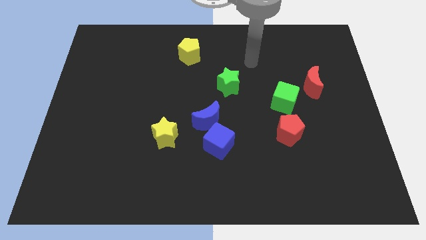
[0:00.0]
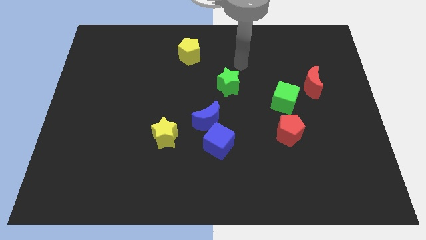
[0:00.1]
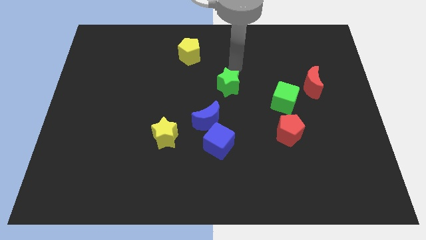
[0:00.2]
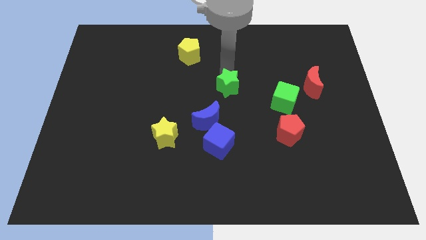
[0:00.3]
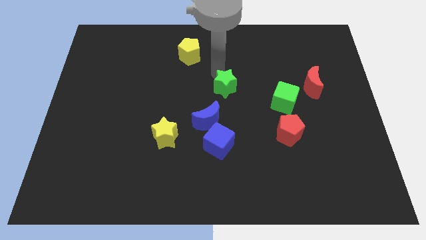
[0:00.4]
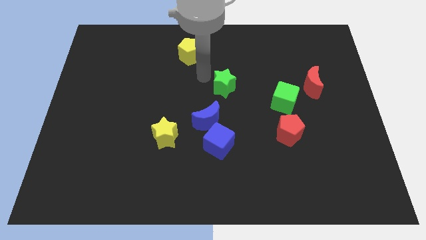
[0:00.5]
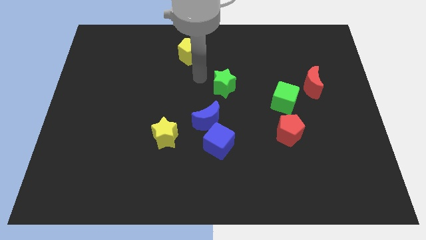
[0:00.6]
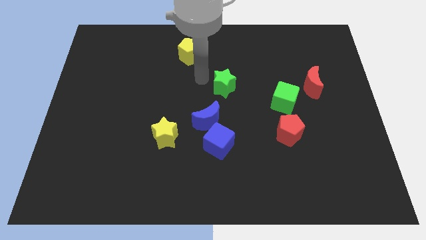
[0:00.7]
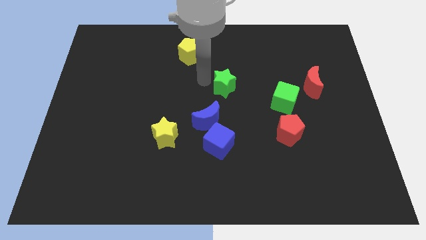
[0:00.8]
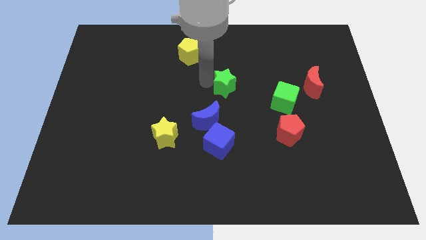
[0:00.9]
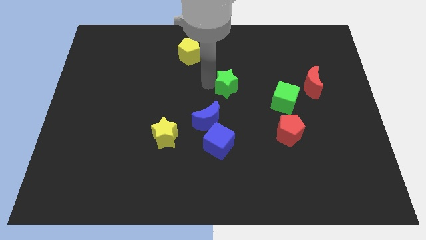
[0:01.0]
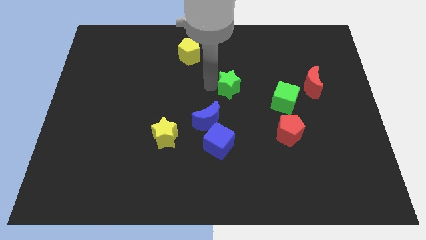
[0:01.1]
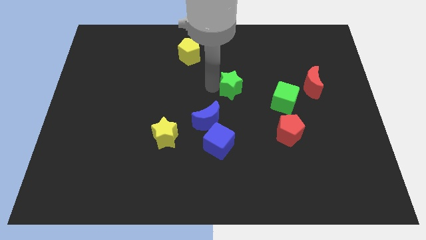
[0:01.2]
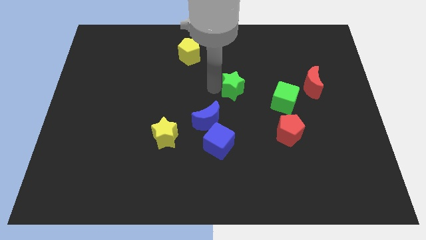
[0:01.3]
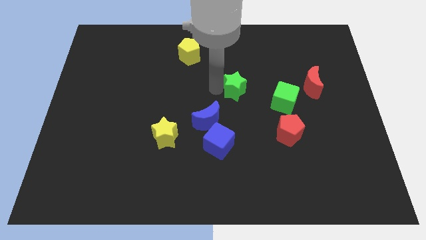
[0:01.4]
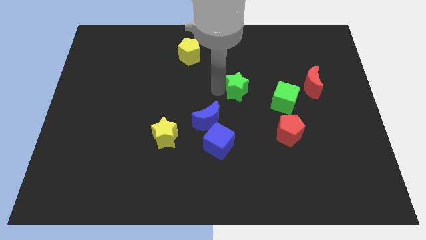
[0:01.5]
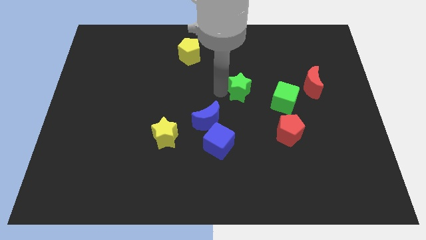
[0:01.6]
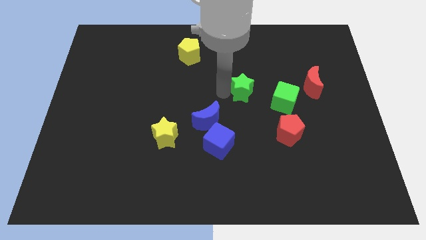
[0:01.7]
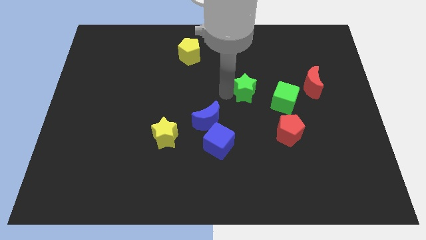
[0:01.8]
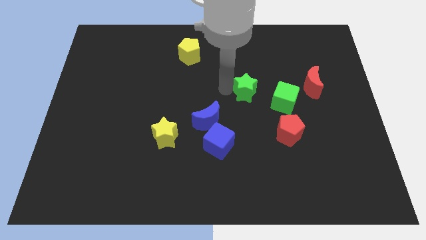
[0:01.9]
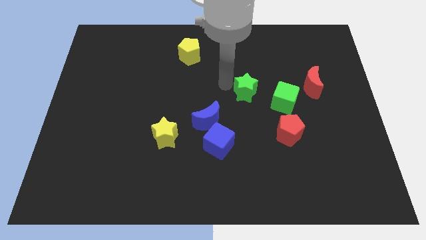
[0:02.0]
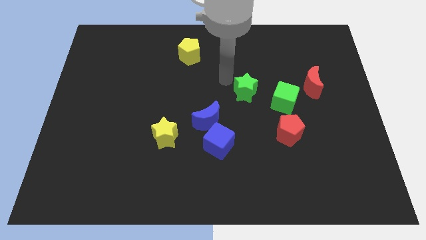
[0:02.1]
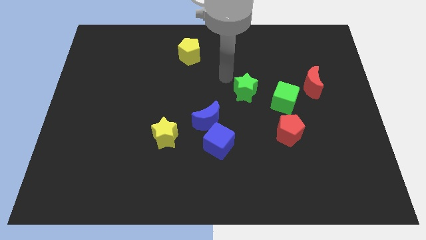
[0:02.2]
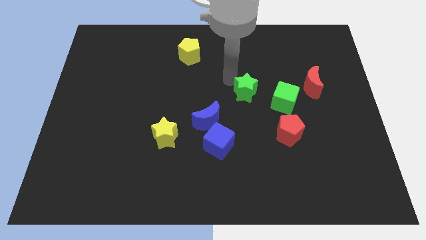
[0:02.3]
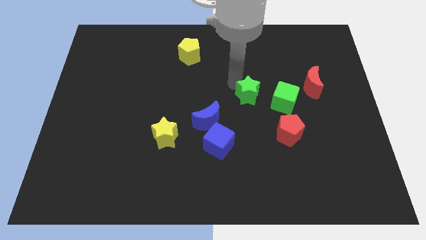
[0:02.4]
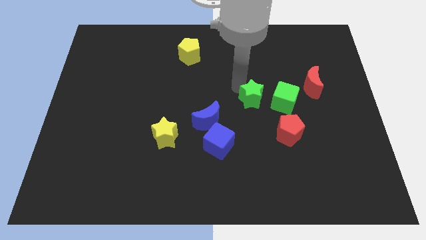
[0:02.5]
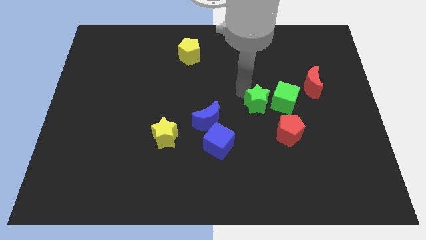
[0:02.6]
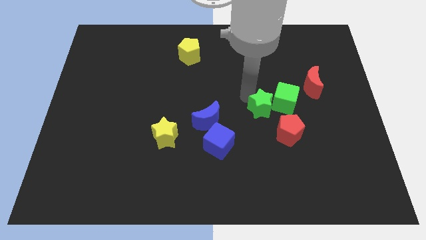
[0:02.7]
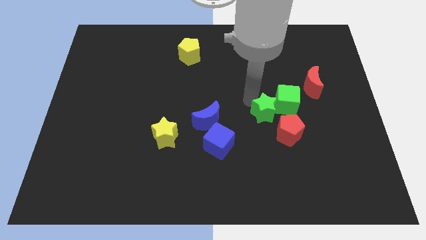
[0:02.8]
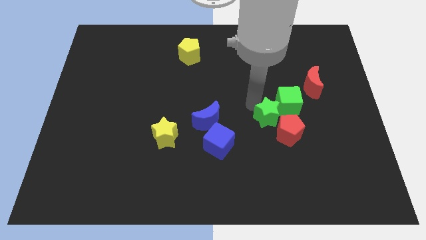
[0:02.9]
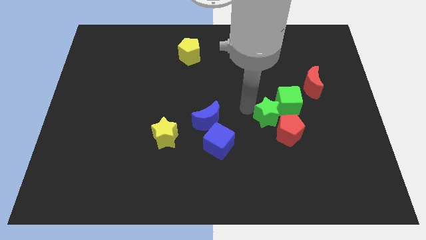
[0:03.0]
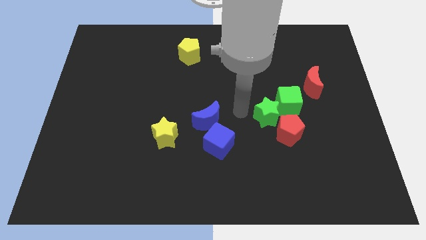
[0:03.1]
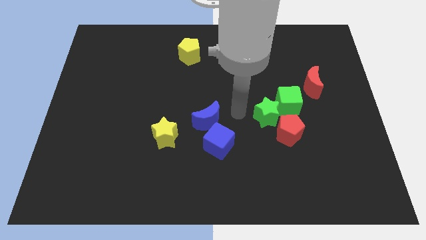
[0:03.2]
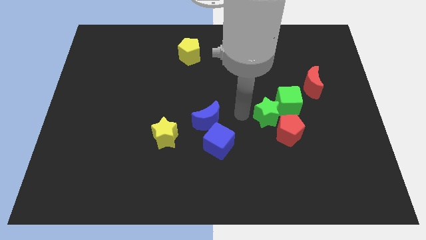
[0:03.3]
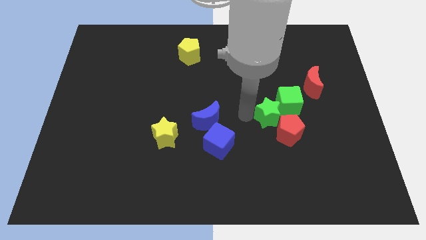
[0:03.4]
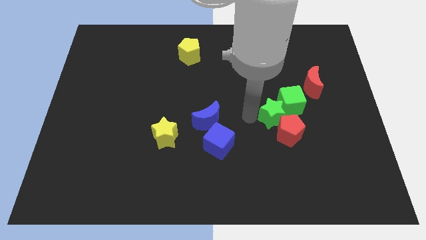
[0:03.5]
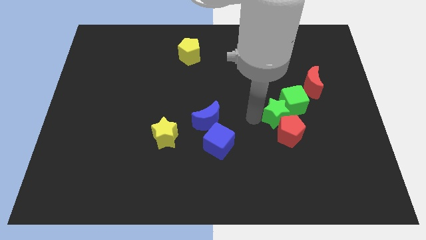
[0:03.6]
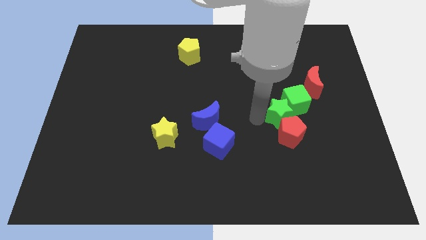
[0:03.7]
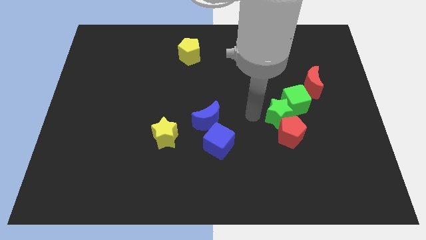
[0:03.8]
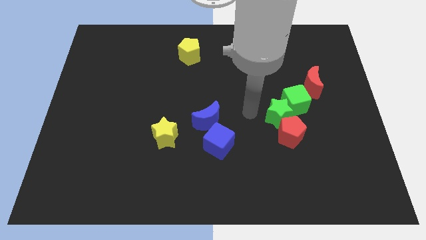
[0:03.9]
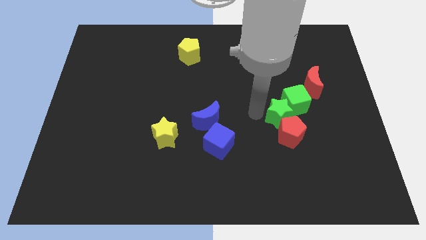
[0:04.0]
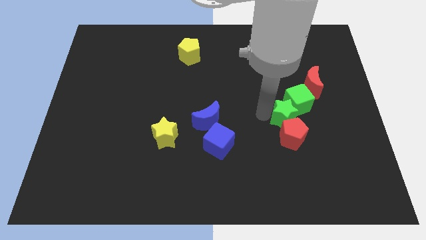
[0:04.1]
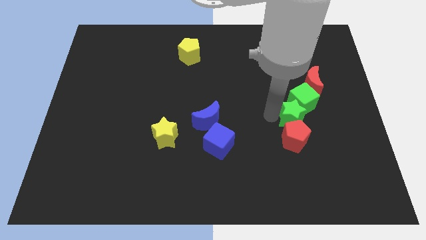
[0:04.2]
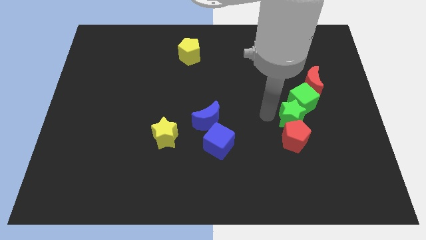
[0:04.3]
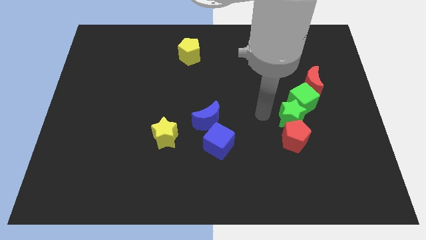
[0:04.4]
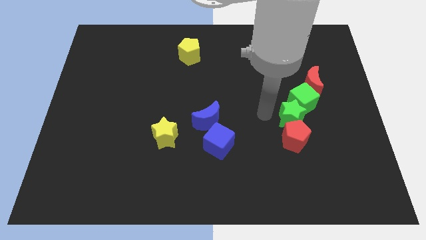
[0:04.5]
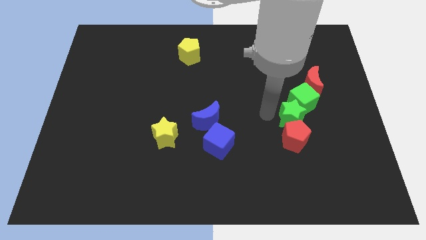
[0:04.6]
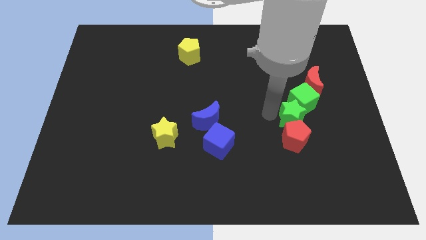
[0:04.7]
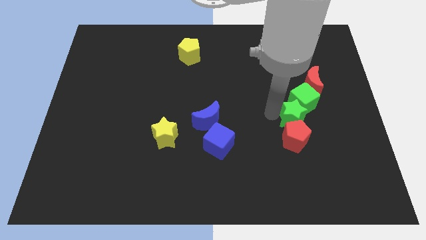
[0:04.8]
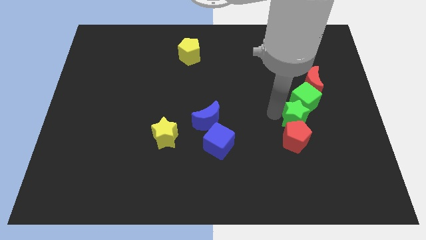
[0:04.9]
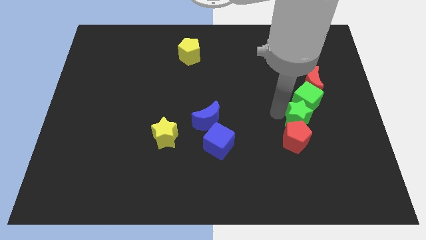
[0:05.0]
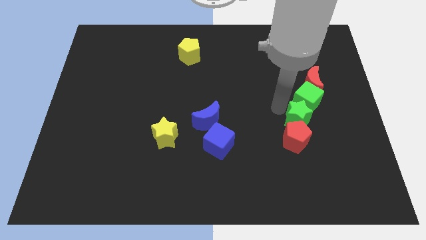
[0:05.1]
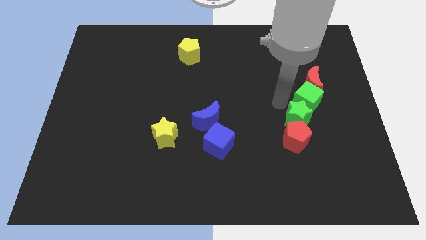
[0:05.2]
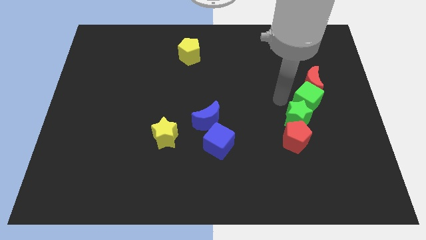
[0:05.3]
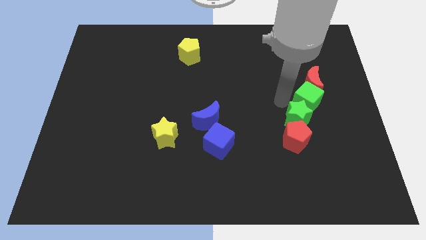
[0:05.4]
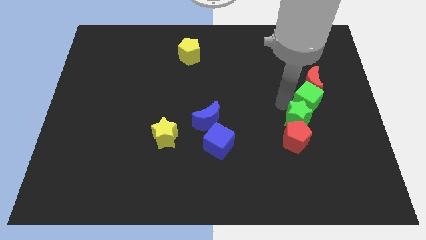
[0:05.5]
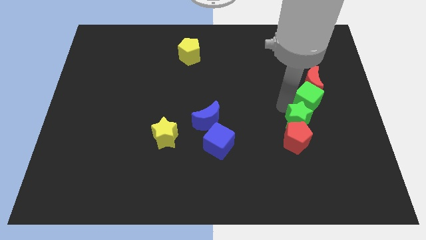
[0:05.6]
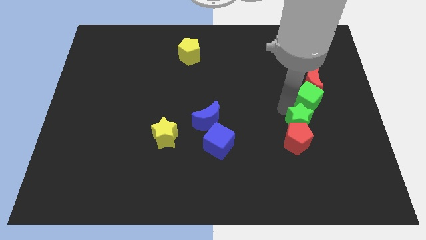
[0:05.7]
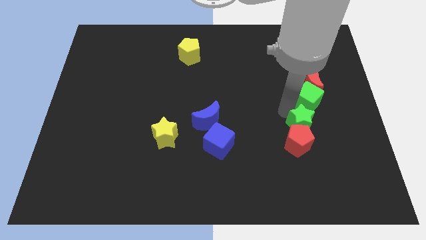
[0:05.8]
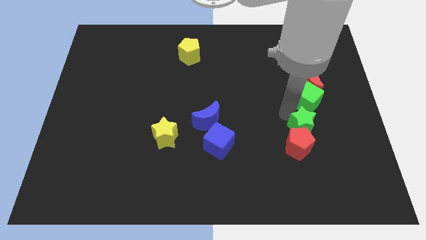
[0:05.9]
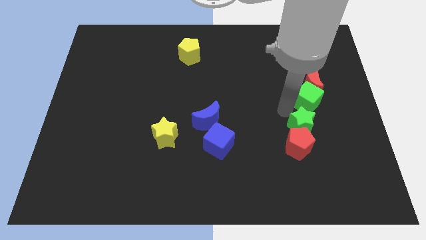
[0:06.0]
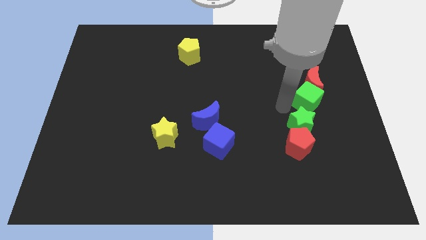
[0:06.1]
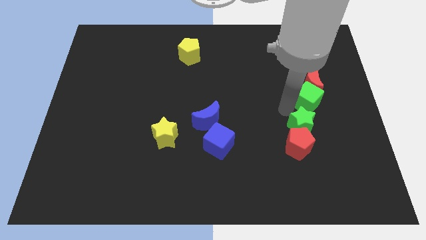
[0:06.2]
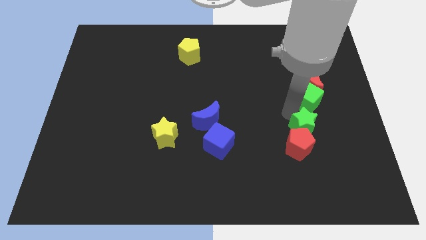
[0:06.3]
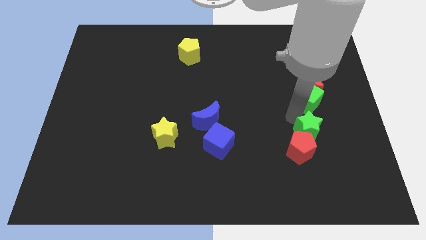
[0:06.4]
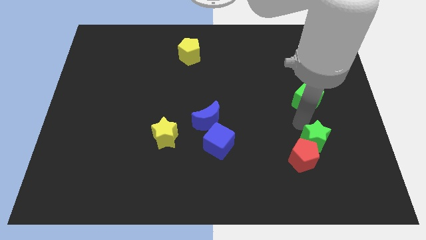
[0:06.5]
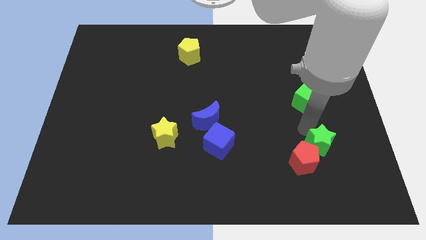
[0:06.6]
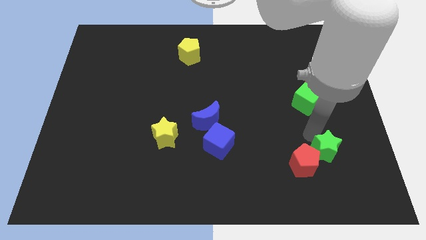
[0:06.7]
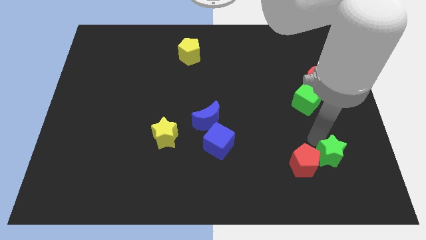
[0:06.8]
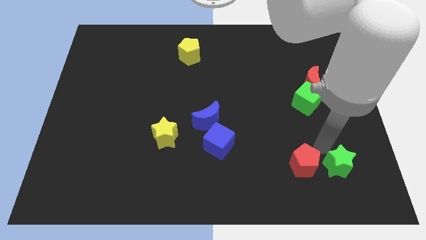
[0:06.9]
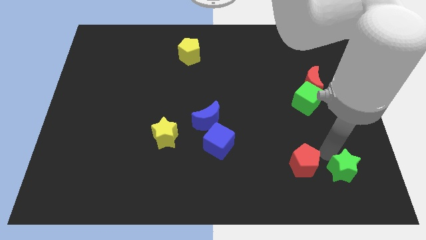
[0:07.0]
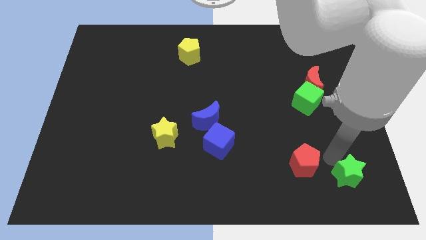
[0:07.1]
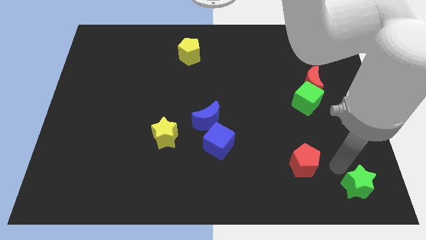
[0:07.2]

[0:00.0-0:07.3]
put the green star to the lower right corner
